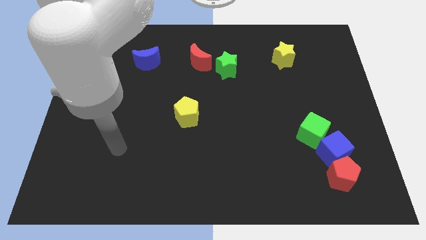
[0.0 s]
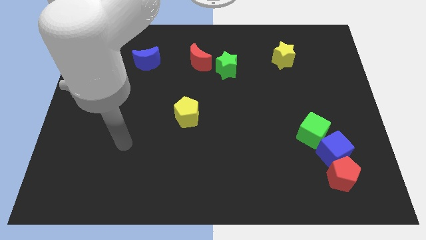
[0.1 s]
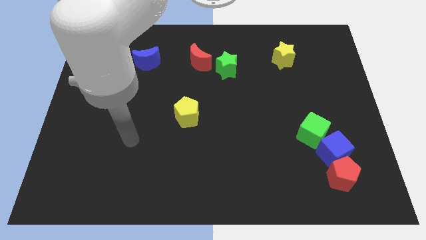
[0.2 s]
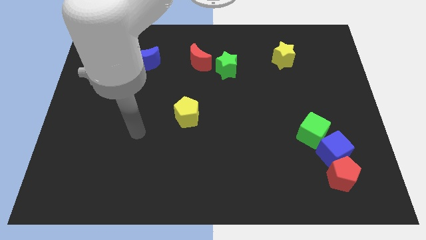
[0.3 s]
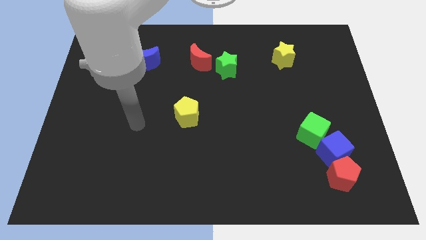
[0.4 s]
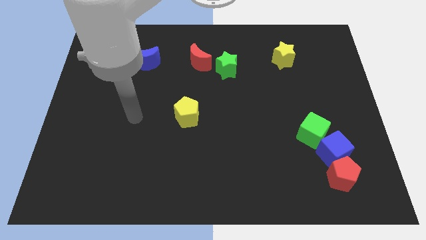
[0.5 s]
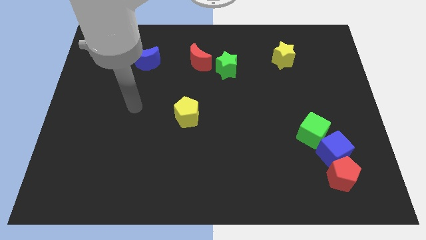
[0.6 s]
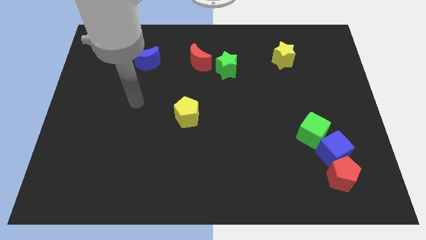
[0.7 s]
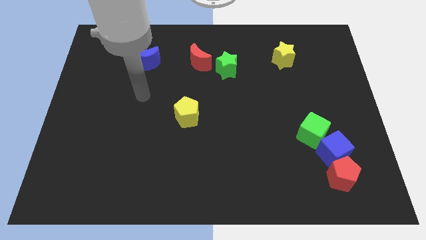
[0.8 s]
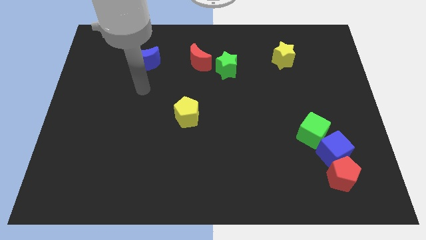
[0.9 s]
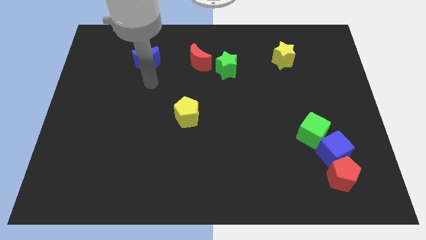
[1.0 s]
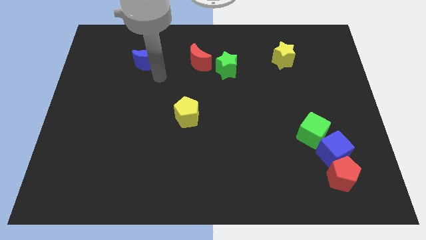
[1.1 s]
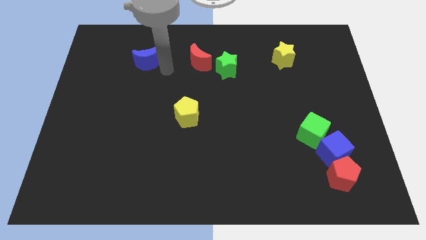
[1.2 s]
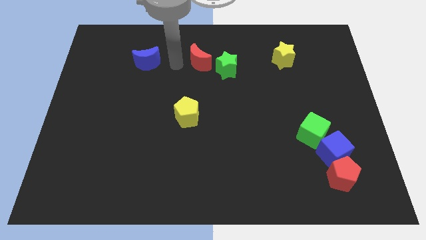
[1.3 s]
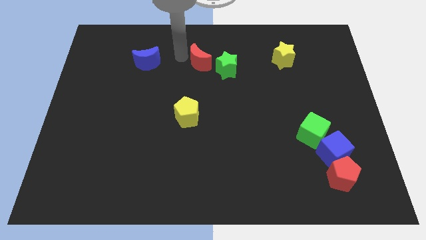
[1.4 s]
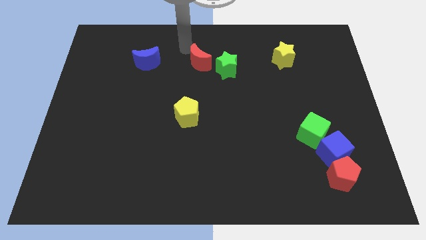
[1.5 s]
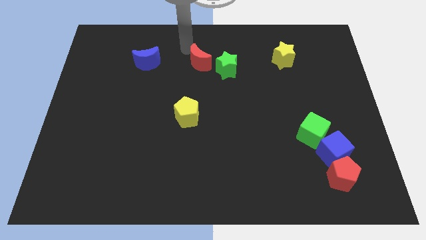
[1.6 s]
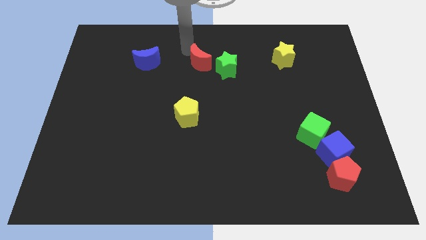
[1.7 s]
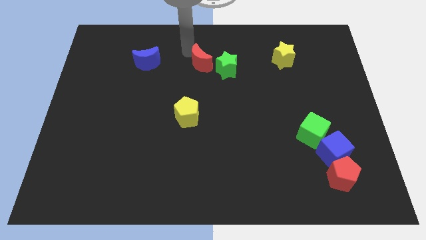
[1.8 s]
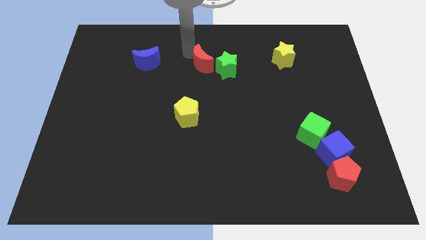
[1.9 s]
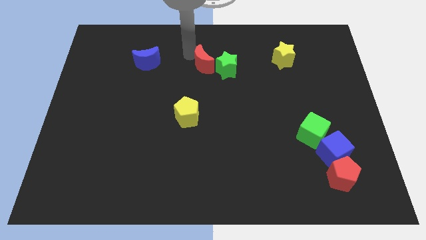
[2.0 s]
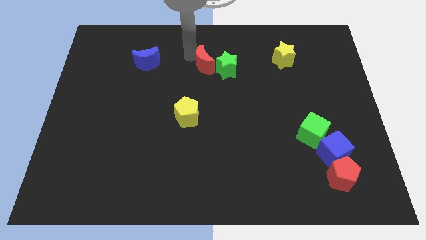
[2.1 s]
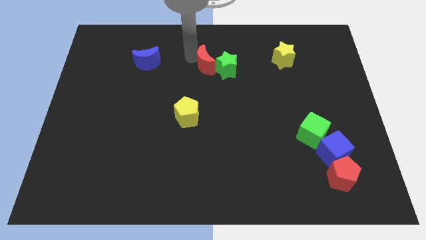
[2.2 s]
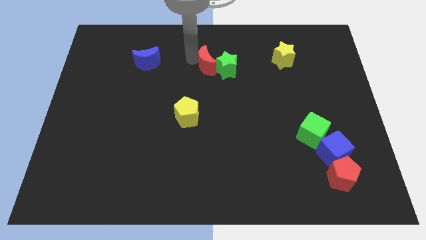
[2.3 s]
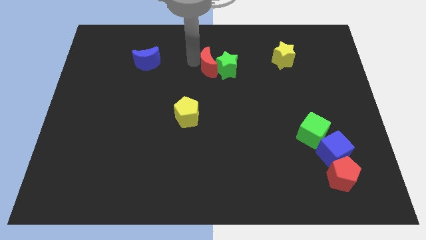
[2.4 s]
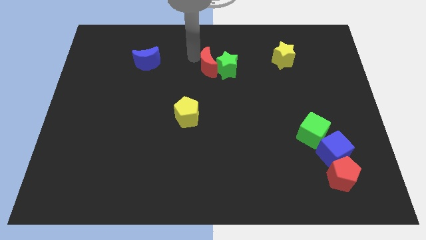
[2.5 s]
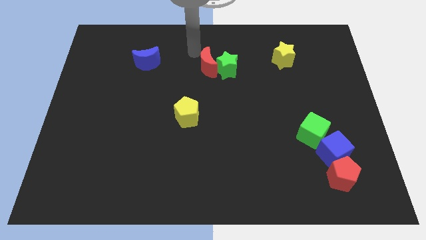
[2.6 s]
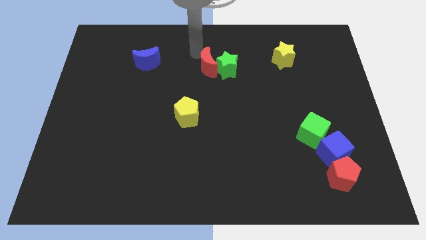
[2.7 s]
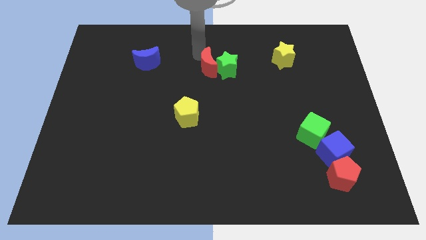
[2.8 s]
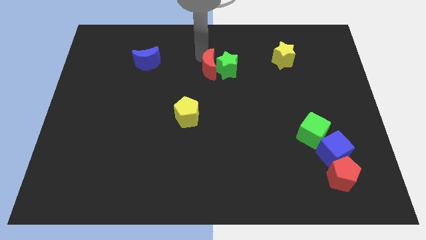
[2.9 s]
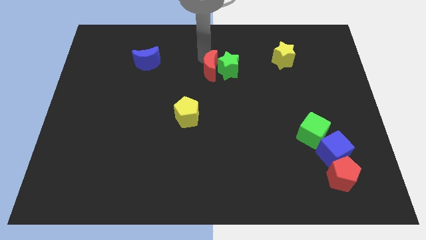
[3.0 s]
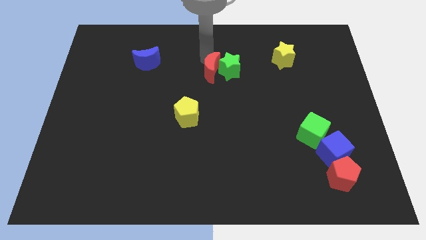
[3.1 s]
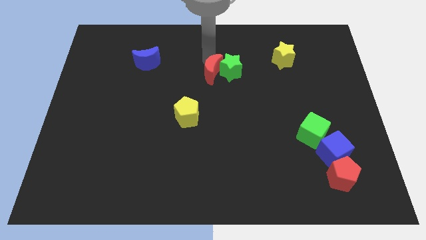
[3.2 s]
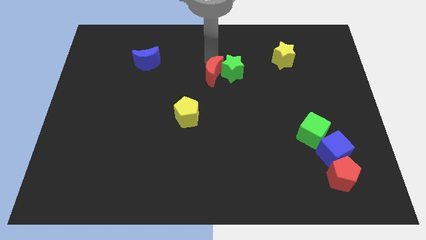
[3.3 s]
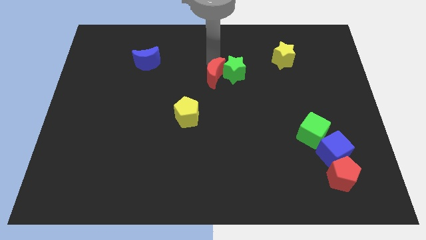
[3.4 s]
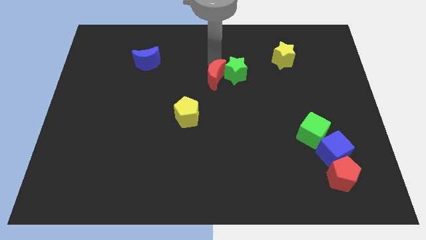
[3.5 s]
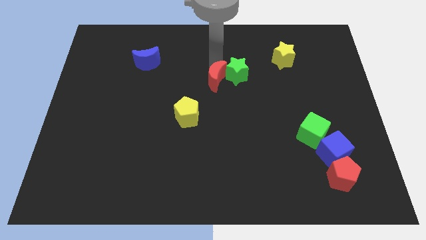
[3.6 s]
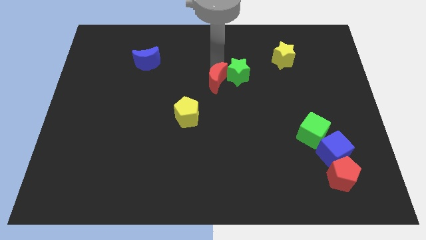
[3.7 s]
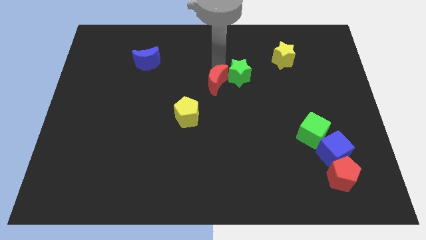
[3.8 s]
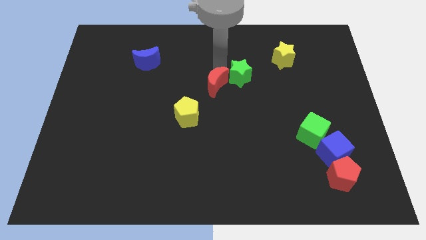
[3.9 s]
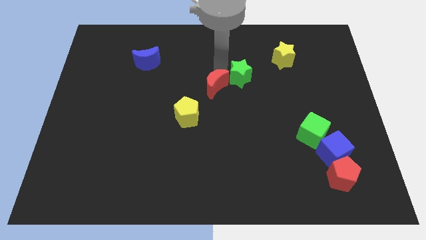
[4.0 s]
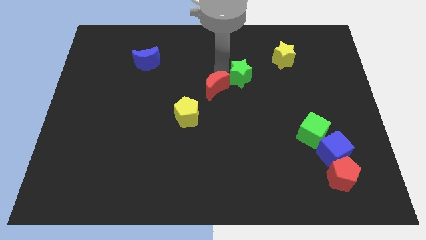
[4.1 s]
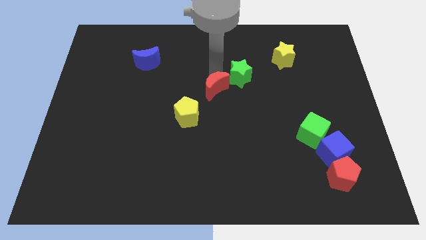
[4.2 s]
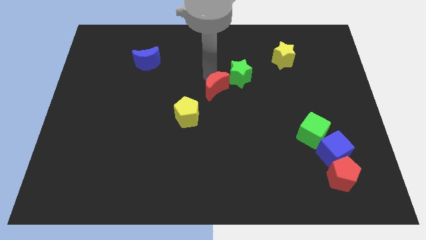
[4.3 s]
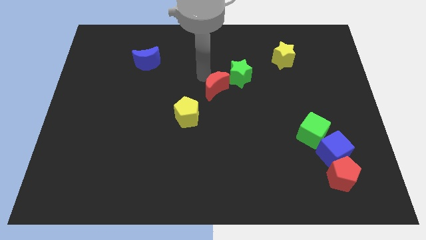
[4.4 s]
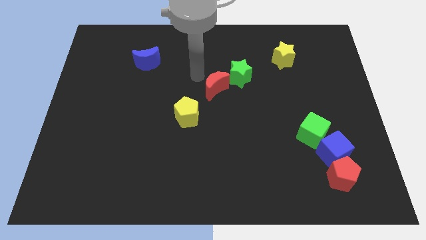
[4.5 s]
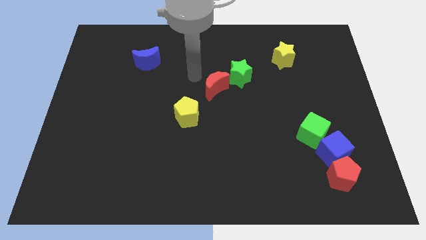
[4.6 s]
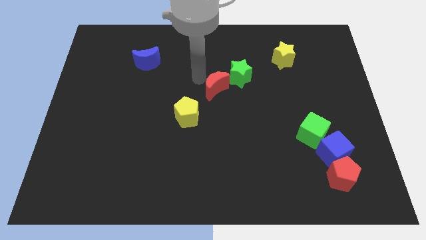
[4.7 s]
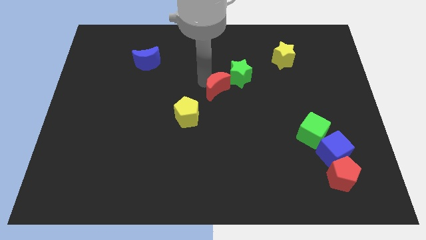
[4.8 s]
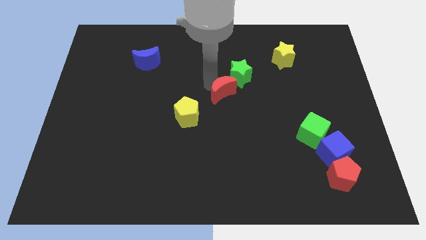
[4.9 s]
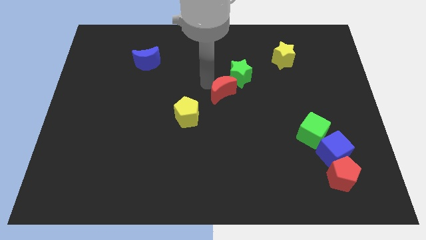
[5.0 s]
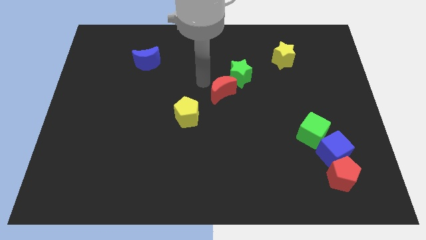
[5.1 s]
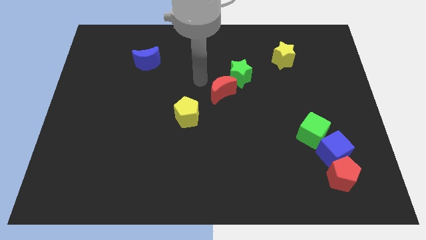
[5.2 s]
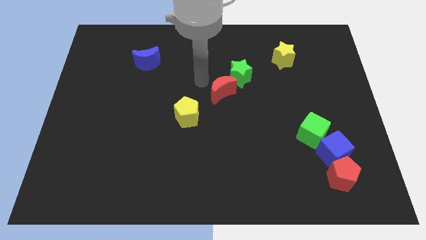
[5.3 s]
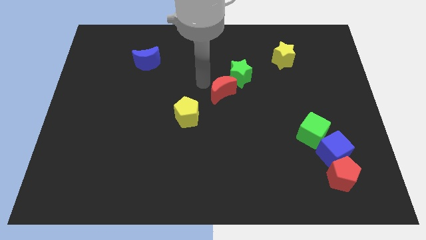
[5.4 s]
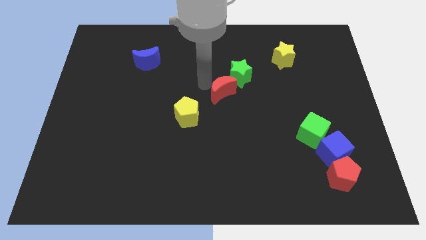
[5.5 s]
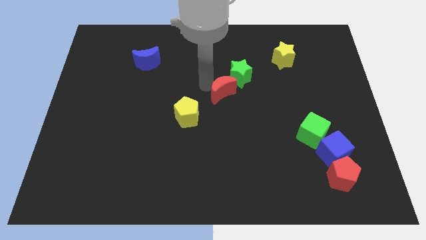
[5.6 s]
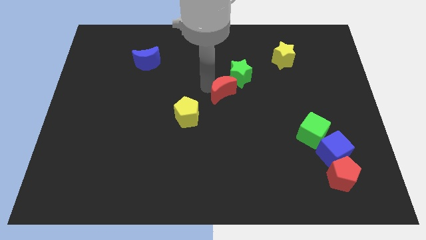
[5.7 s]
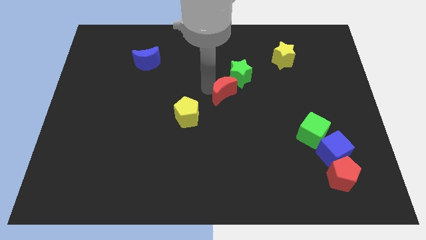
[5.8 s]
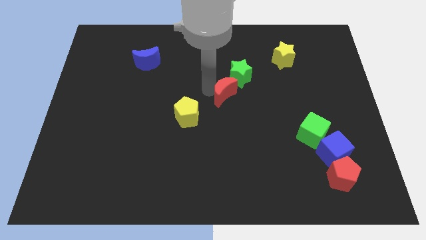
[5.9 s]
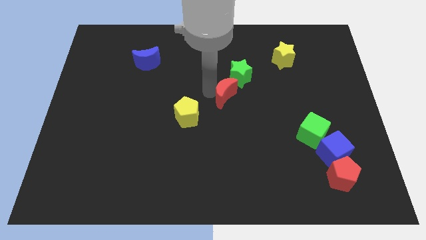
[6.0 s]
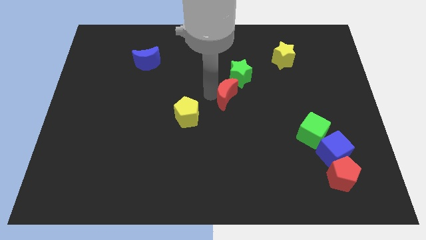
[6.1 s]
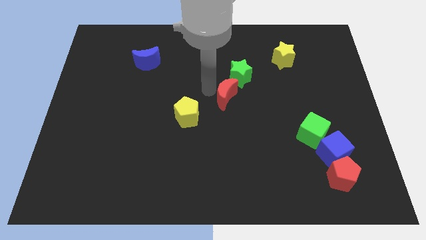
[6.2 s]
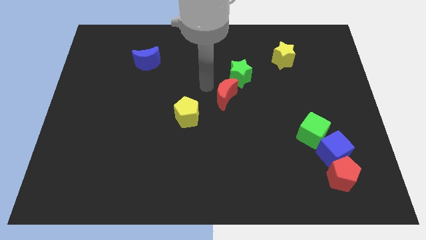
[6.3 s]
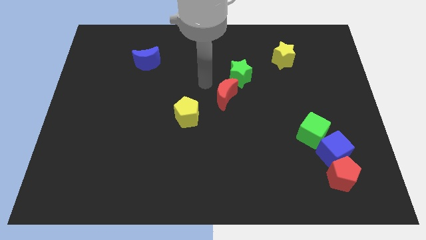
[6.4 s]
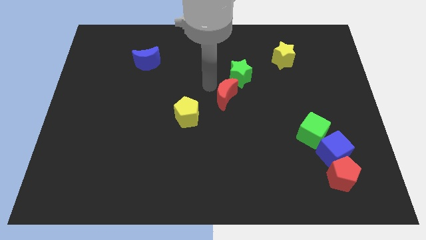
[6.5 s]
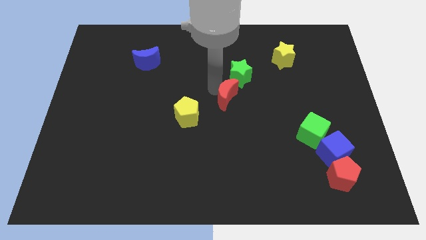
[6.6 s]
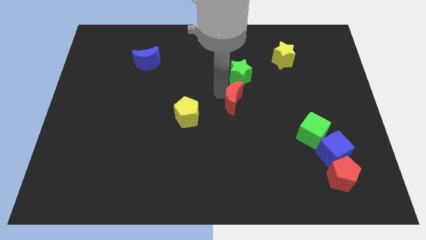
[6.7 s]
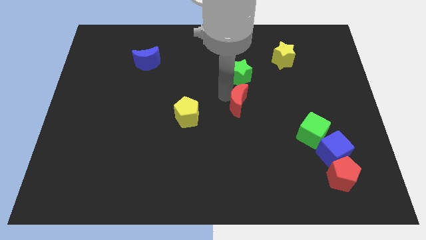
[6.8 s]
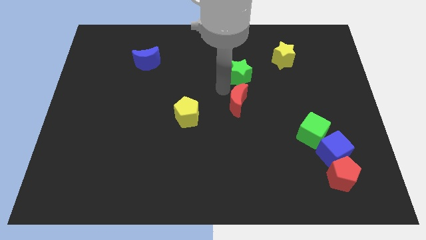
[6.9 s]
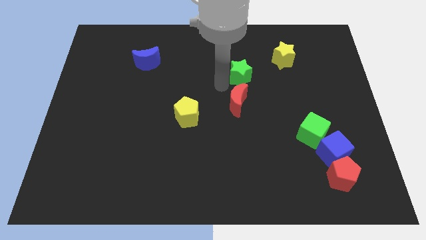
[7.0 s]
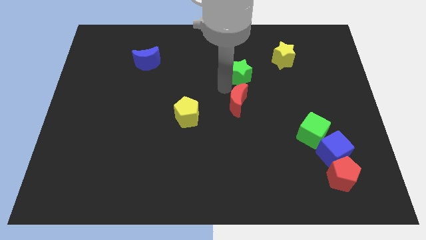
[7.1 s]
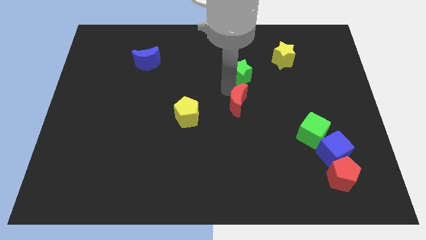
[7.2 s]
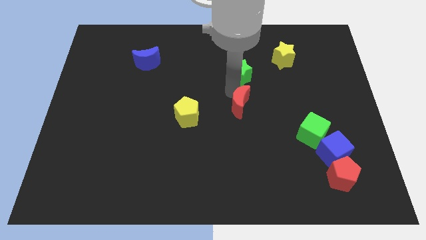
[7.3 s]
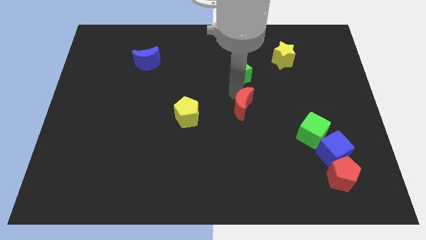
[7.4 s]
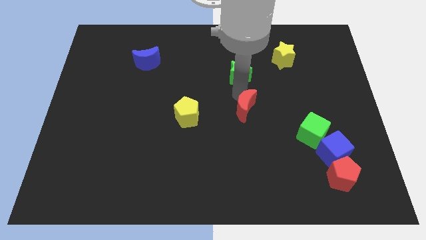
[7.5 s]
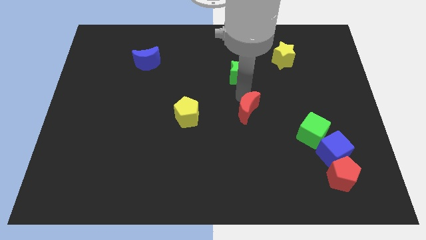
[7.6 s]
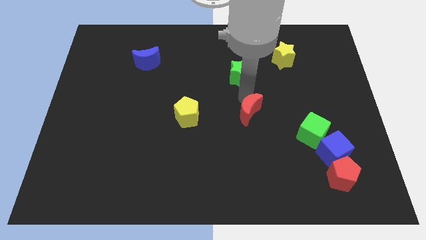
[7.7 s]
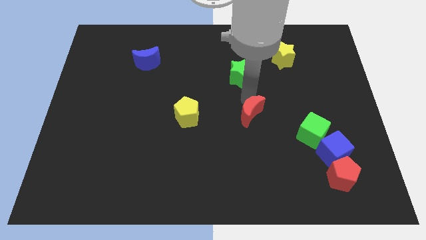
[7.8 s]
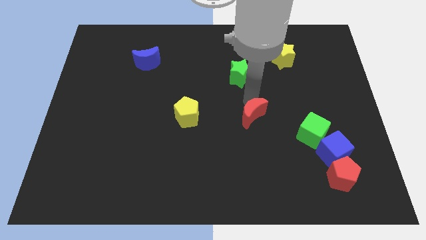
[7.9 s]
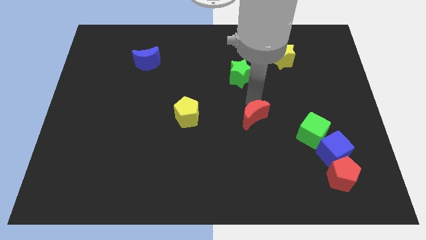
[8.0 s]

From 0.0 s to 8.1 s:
slide the red moon left of the green cube
